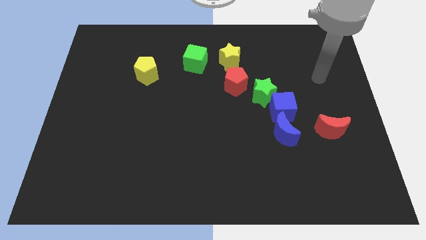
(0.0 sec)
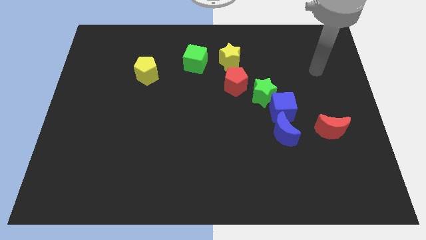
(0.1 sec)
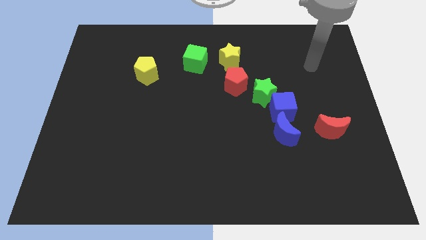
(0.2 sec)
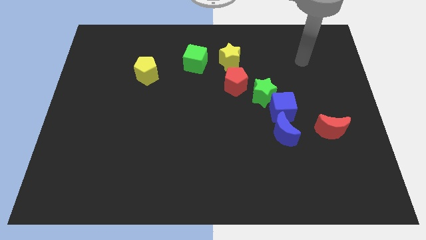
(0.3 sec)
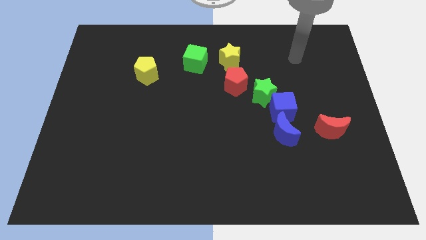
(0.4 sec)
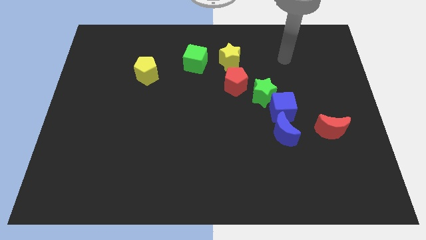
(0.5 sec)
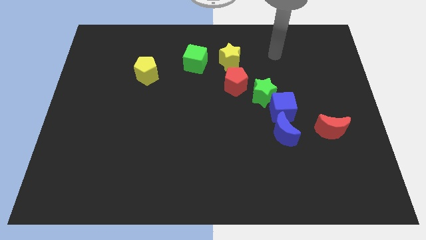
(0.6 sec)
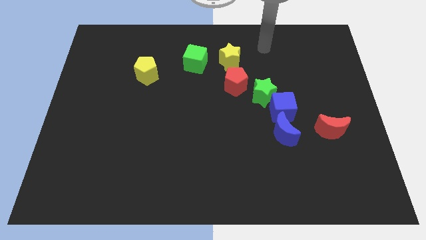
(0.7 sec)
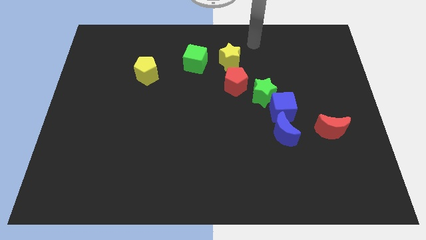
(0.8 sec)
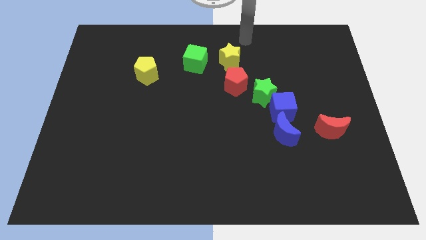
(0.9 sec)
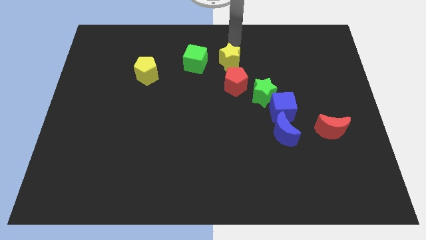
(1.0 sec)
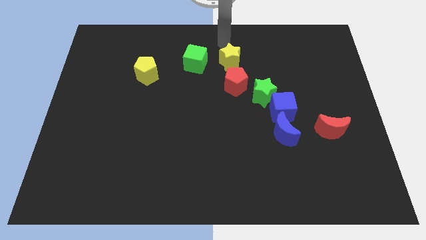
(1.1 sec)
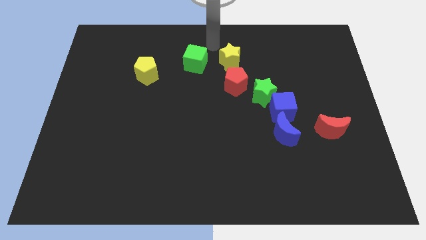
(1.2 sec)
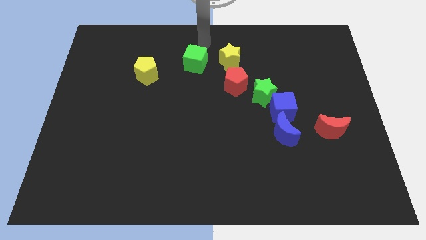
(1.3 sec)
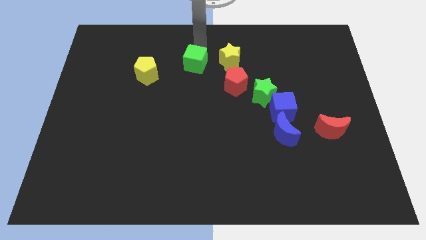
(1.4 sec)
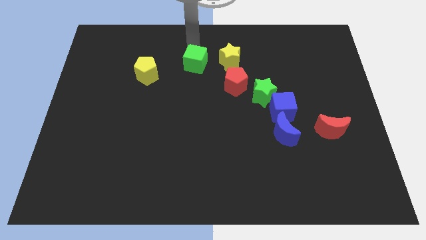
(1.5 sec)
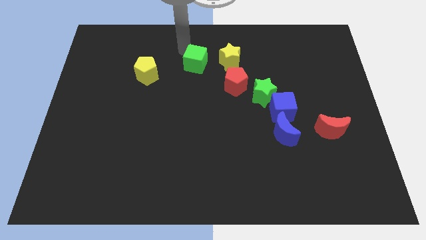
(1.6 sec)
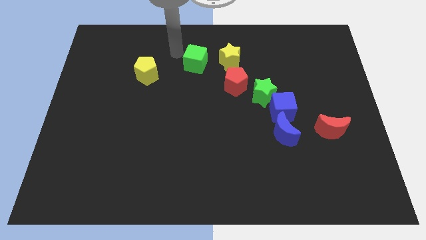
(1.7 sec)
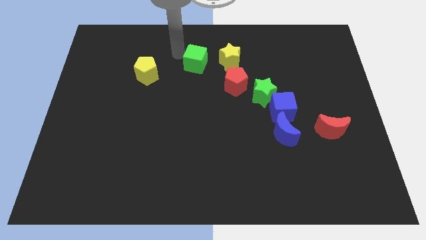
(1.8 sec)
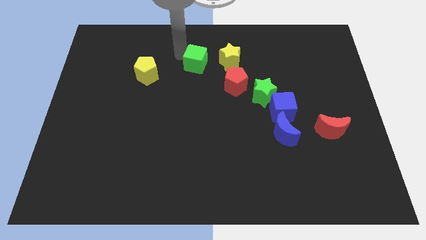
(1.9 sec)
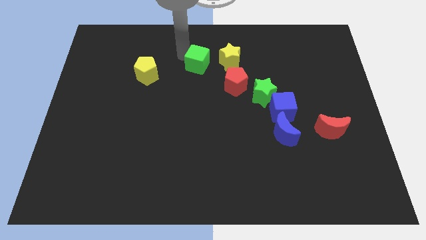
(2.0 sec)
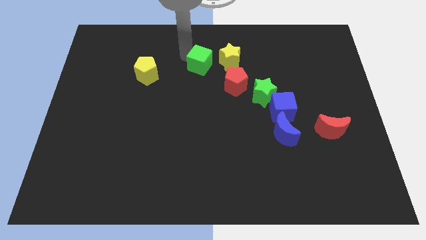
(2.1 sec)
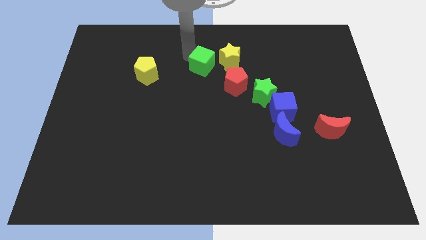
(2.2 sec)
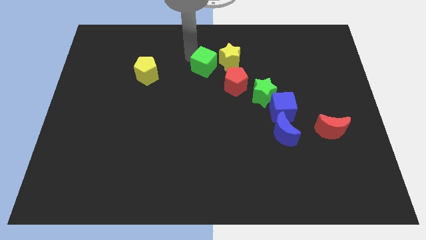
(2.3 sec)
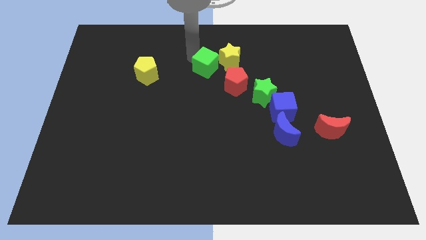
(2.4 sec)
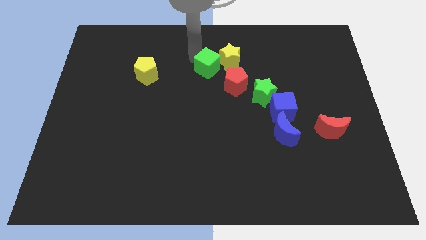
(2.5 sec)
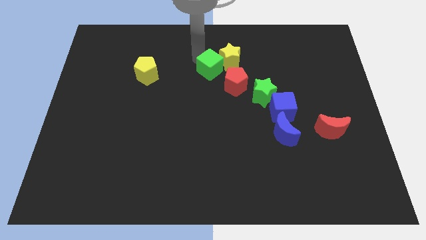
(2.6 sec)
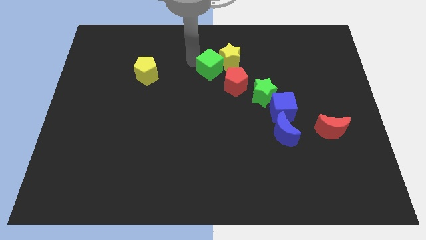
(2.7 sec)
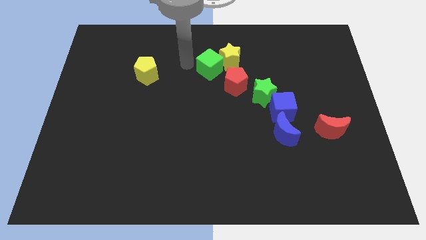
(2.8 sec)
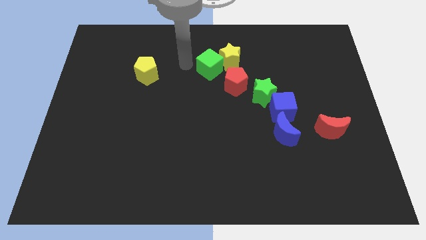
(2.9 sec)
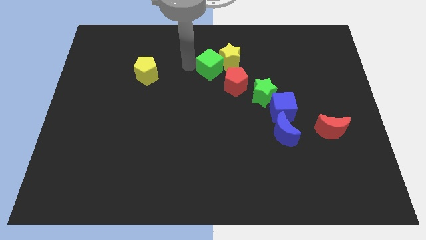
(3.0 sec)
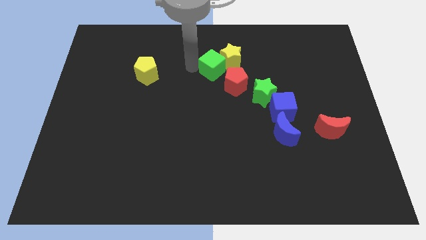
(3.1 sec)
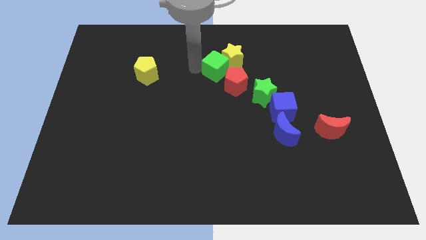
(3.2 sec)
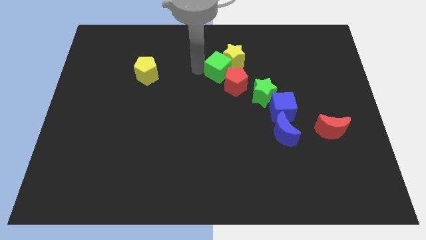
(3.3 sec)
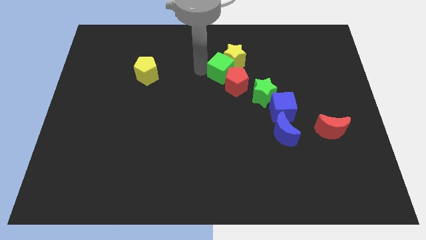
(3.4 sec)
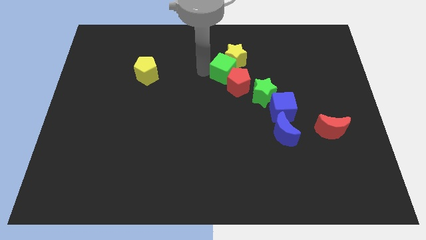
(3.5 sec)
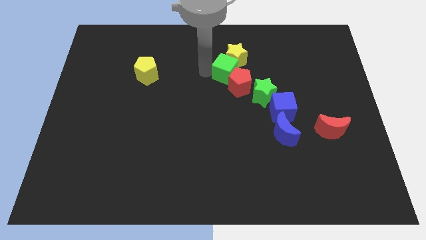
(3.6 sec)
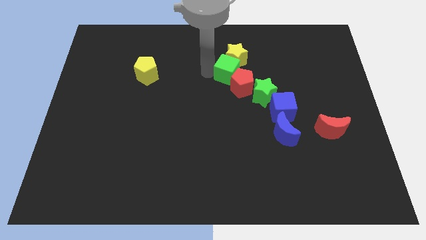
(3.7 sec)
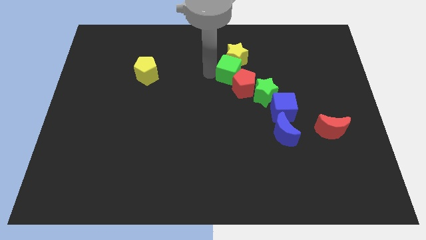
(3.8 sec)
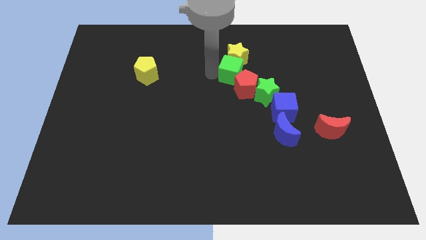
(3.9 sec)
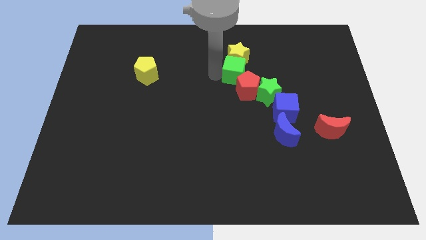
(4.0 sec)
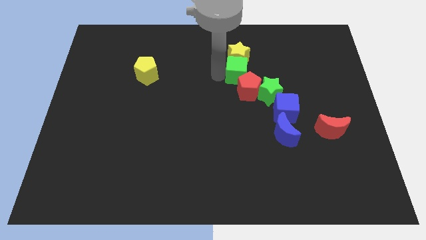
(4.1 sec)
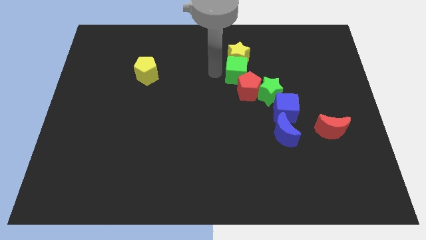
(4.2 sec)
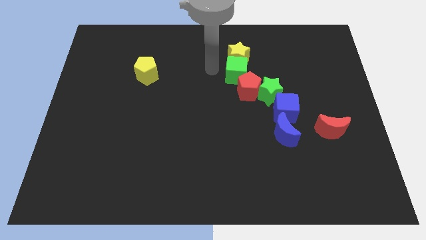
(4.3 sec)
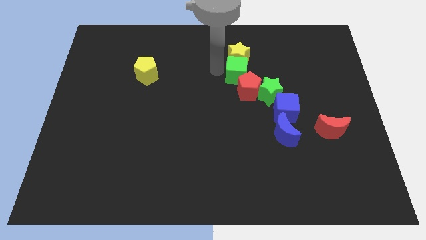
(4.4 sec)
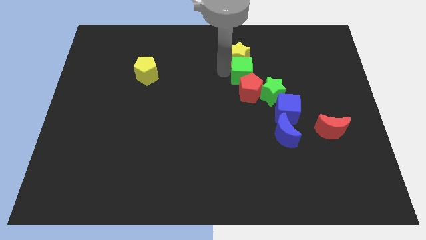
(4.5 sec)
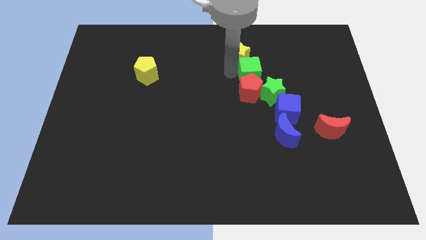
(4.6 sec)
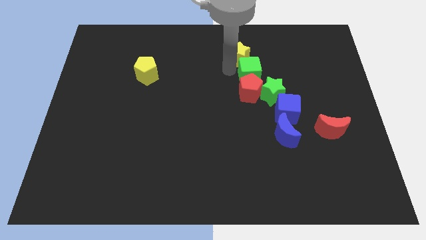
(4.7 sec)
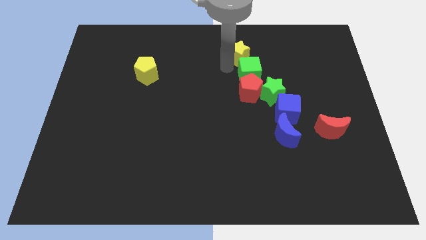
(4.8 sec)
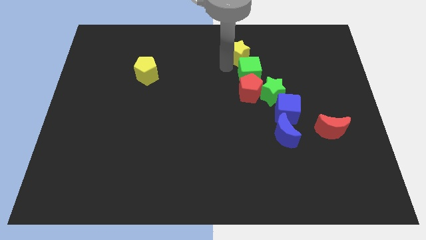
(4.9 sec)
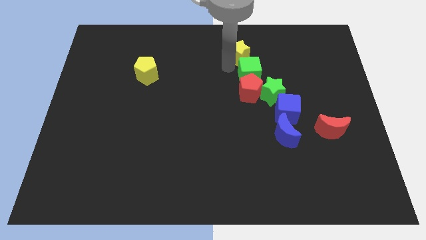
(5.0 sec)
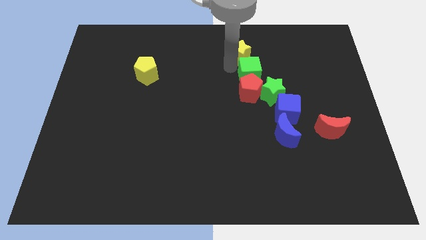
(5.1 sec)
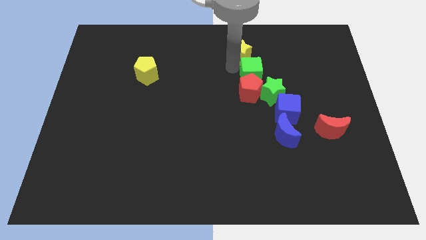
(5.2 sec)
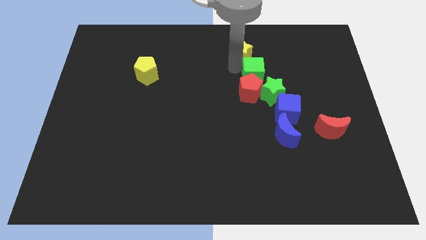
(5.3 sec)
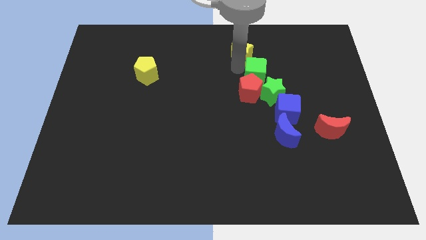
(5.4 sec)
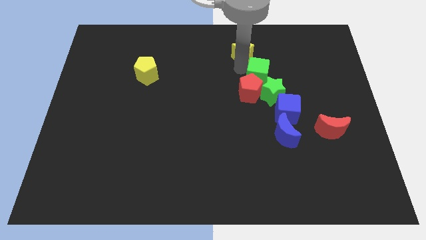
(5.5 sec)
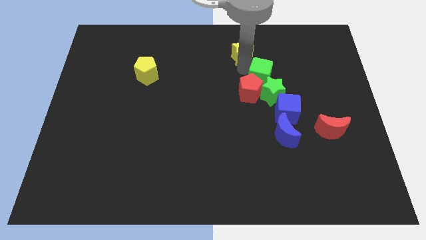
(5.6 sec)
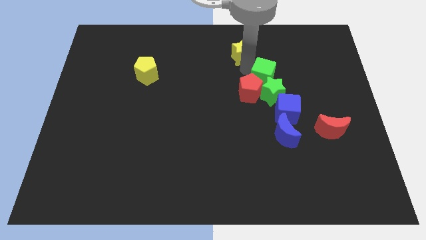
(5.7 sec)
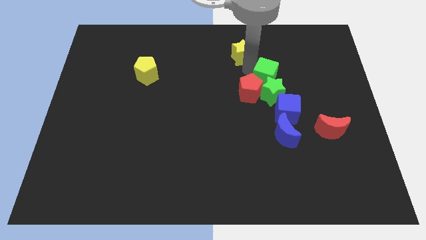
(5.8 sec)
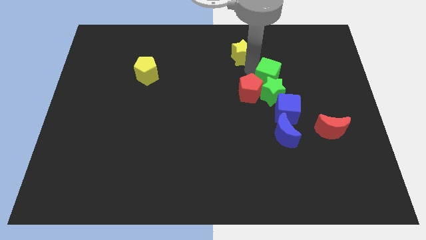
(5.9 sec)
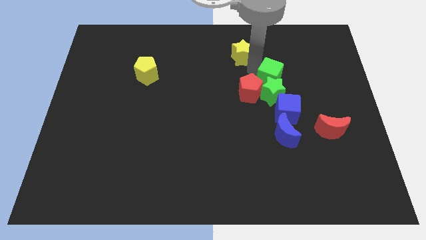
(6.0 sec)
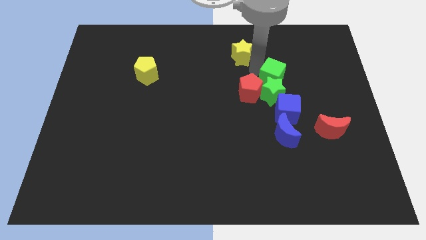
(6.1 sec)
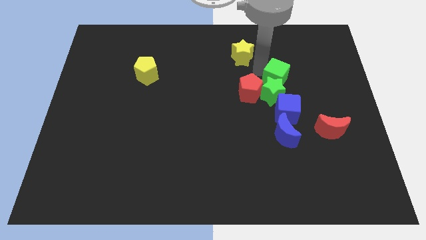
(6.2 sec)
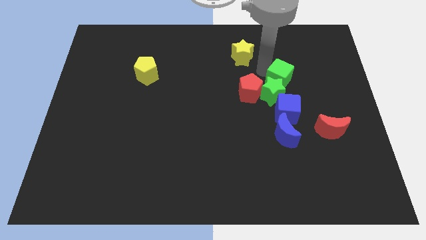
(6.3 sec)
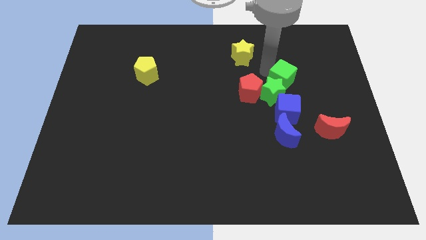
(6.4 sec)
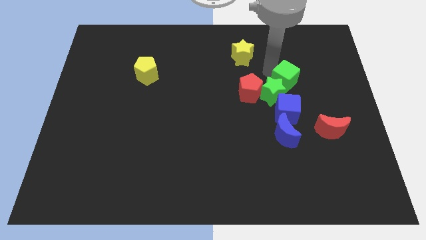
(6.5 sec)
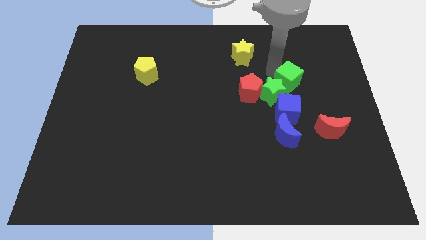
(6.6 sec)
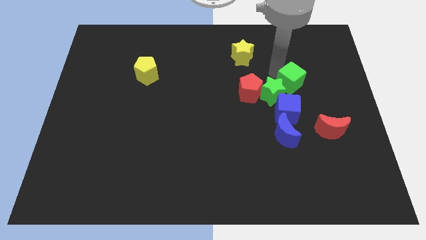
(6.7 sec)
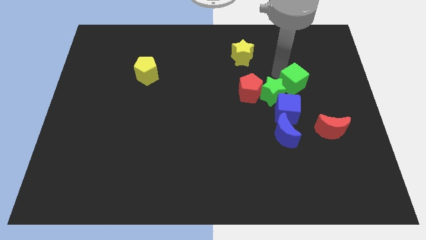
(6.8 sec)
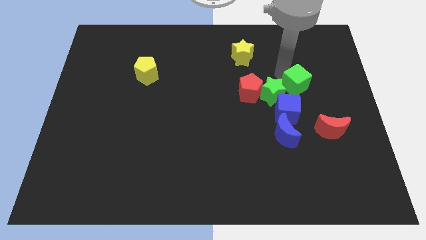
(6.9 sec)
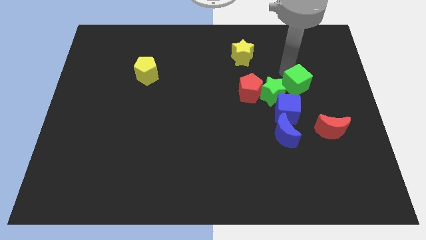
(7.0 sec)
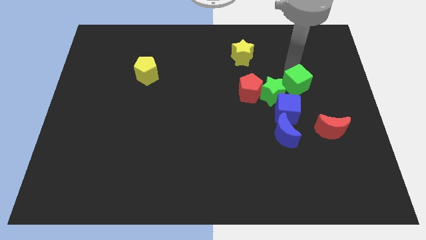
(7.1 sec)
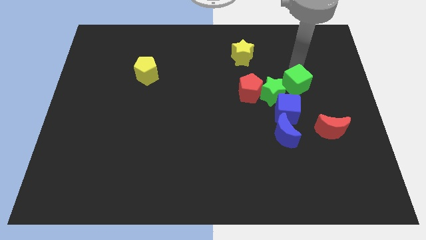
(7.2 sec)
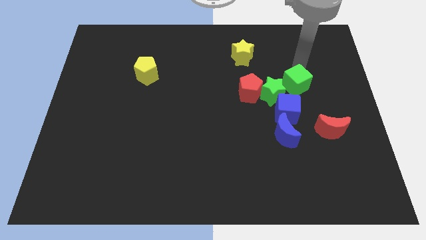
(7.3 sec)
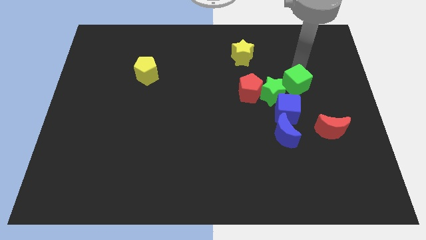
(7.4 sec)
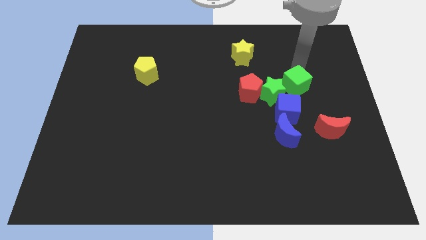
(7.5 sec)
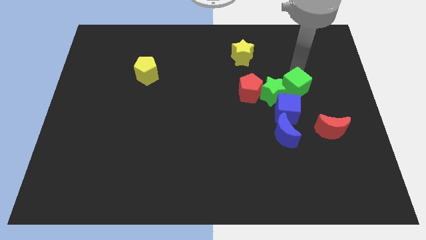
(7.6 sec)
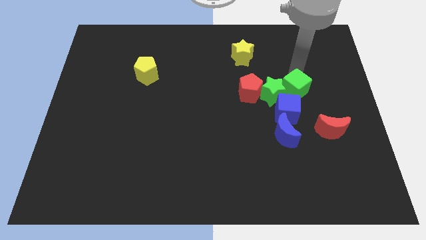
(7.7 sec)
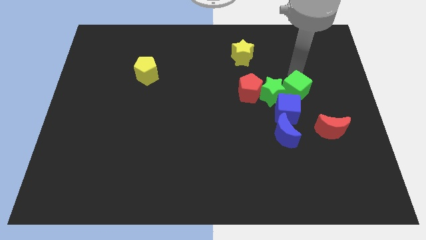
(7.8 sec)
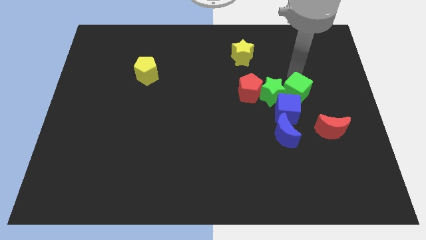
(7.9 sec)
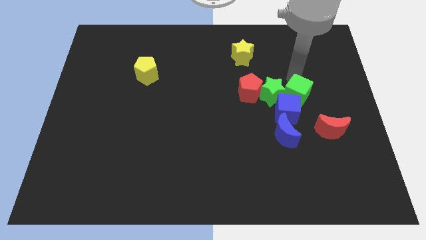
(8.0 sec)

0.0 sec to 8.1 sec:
put the green cube to the top left side of the red moon
